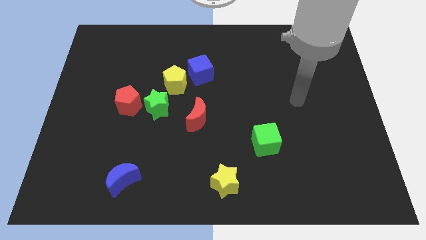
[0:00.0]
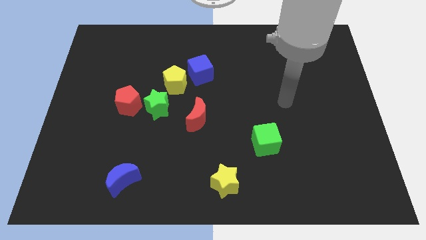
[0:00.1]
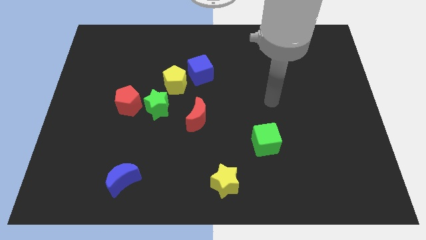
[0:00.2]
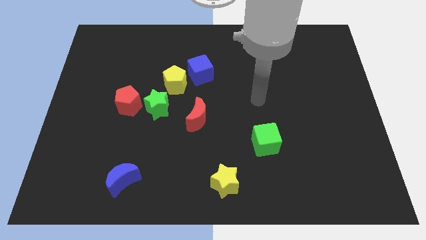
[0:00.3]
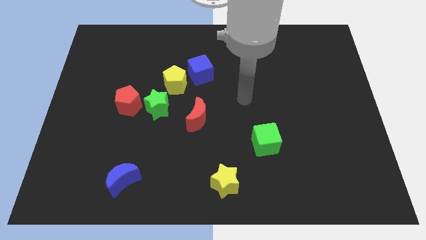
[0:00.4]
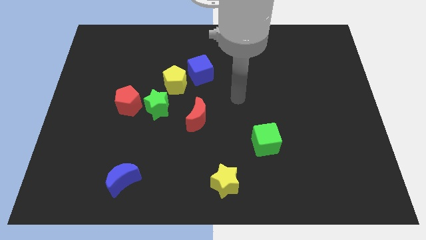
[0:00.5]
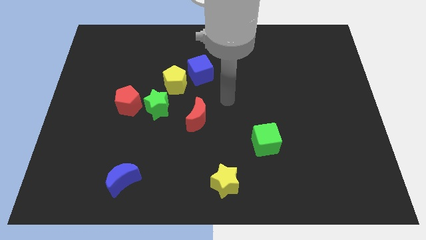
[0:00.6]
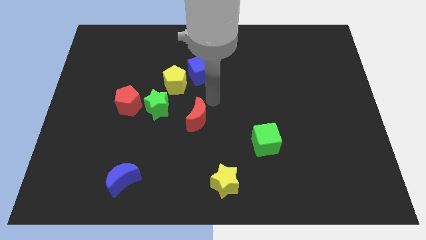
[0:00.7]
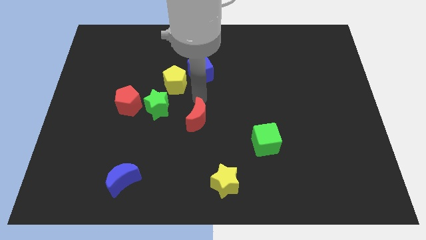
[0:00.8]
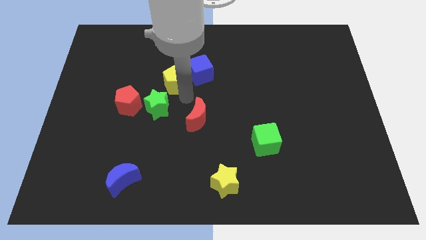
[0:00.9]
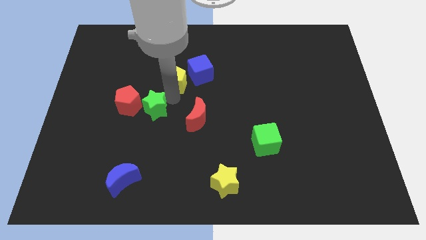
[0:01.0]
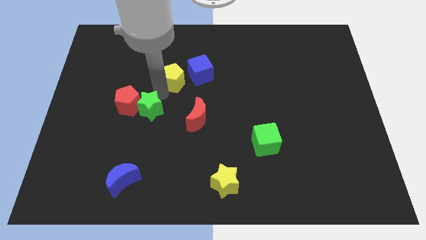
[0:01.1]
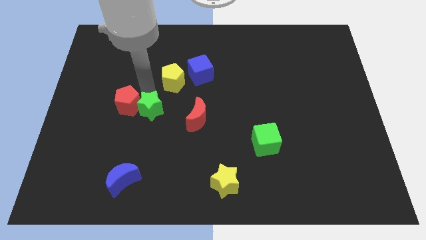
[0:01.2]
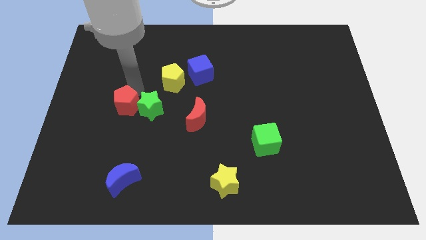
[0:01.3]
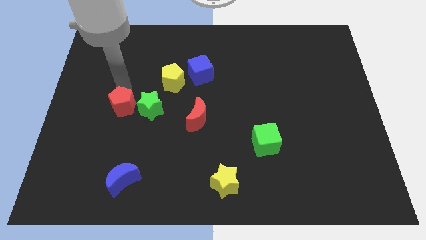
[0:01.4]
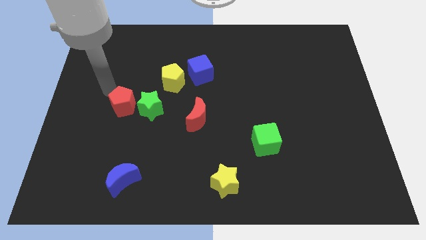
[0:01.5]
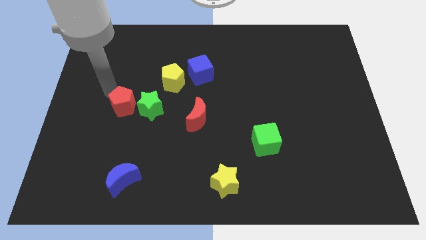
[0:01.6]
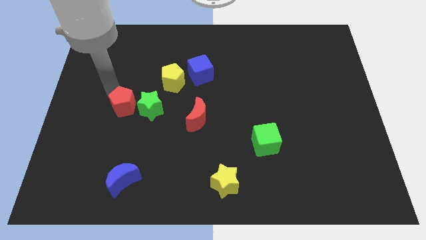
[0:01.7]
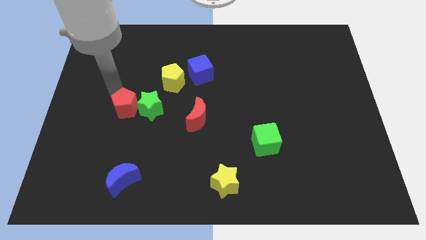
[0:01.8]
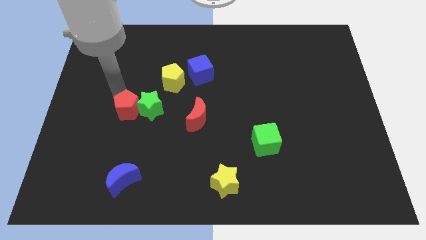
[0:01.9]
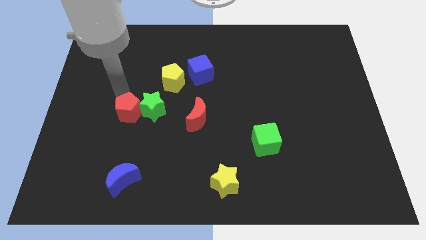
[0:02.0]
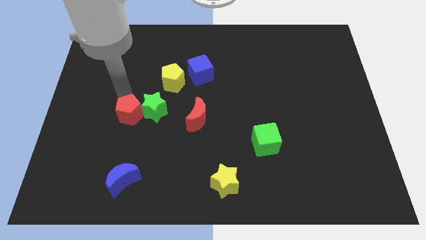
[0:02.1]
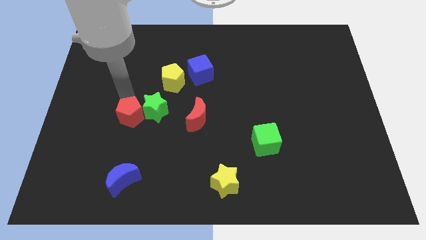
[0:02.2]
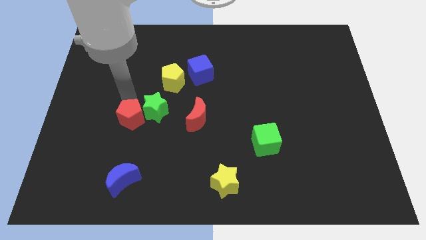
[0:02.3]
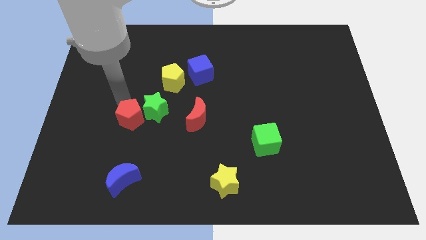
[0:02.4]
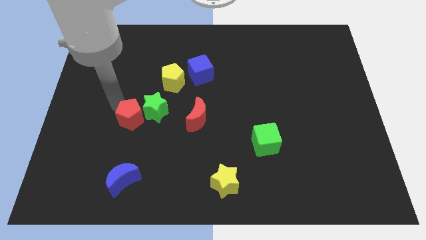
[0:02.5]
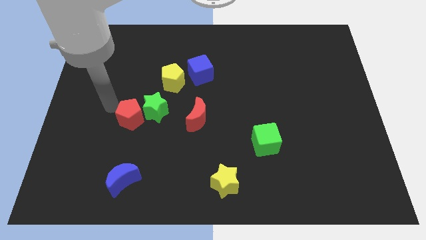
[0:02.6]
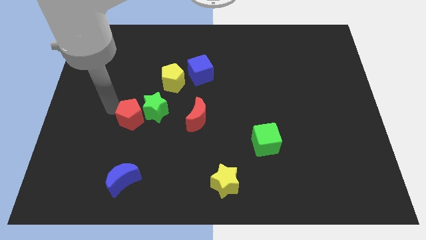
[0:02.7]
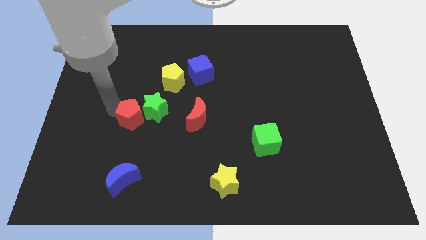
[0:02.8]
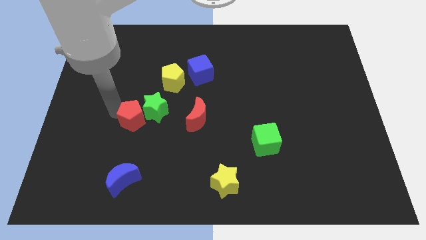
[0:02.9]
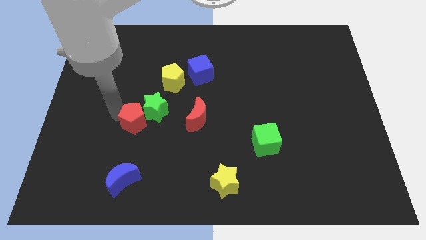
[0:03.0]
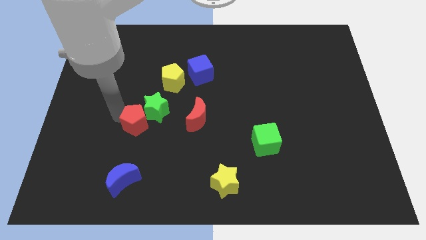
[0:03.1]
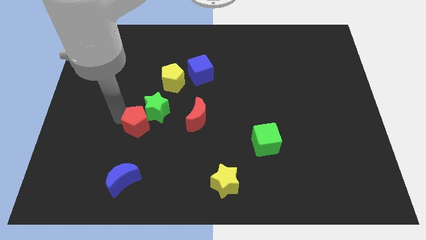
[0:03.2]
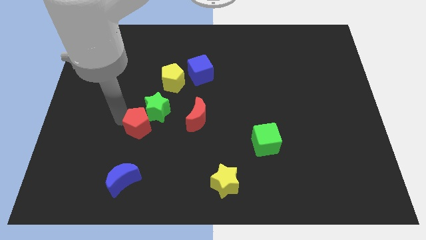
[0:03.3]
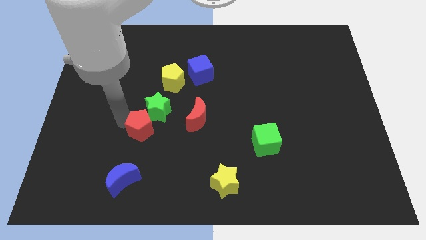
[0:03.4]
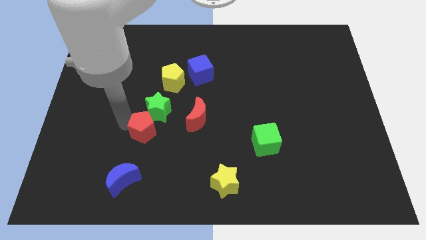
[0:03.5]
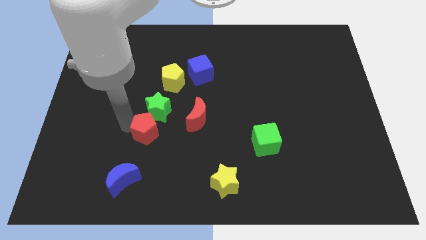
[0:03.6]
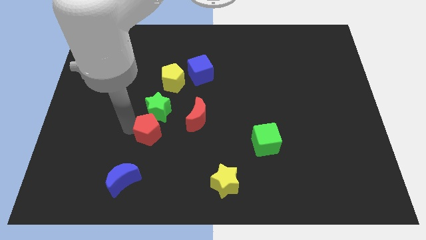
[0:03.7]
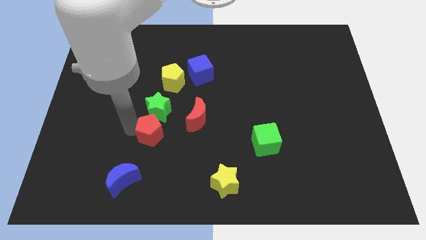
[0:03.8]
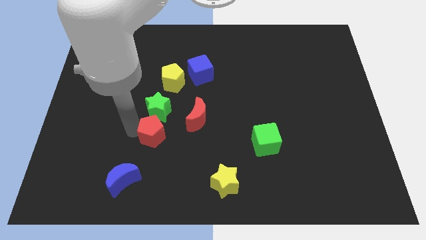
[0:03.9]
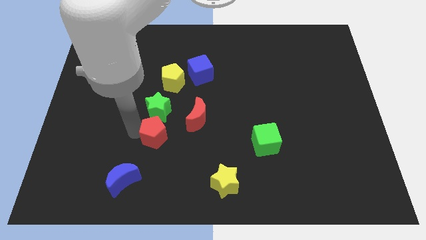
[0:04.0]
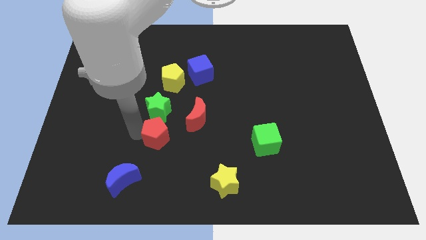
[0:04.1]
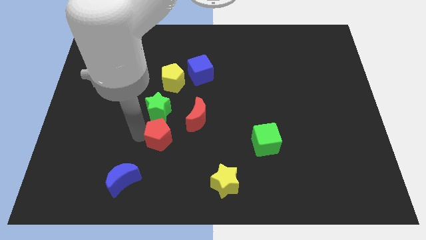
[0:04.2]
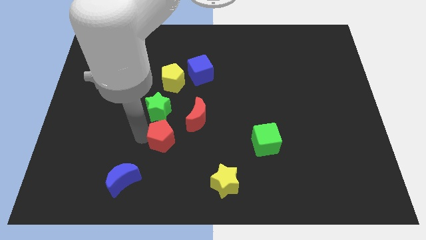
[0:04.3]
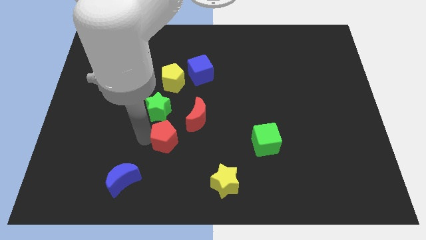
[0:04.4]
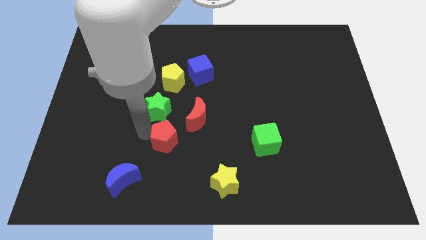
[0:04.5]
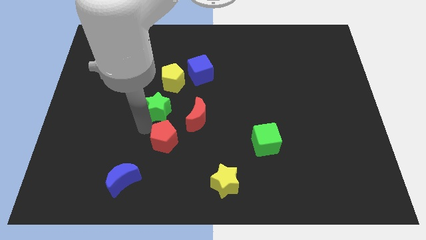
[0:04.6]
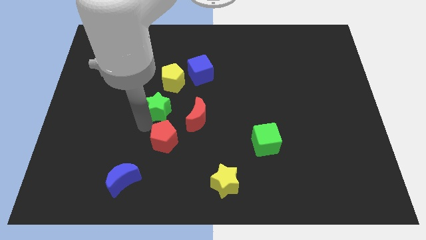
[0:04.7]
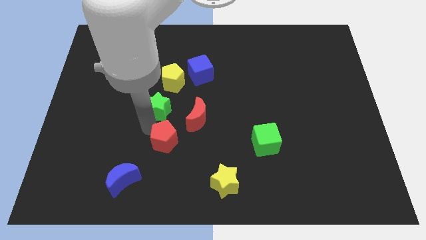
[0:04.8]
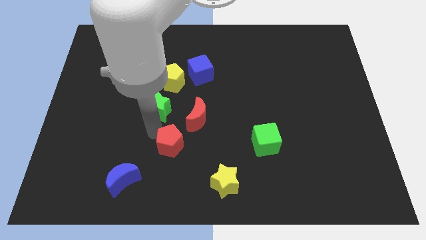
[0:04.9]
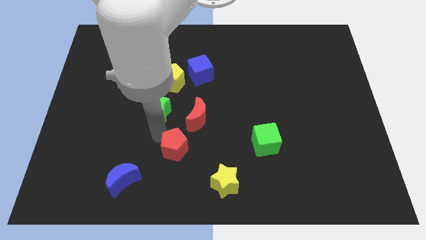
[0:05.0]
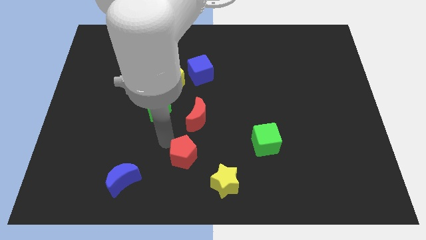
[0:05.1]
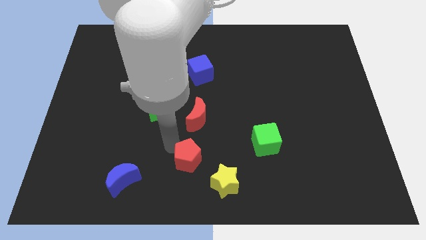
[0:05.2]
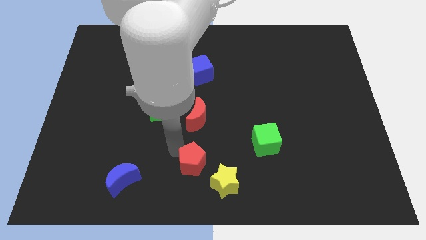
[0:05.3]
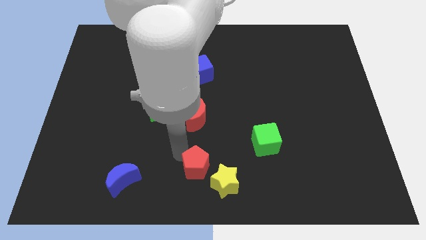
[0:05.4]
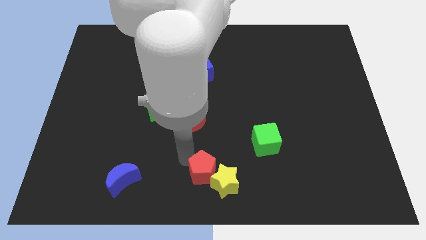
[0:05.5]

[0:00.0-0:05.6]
slide the red pentagon next to the yellow star

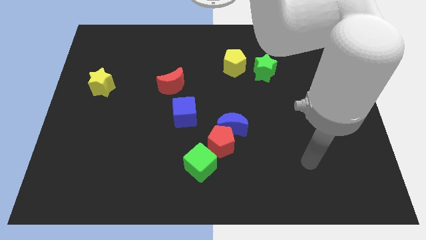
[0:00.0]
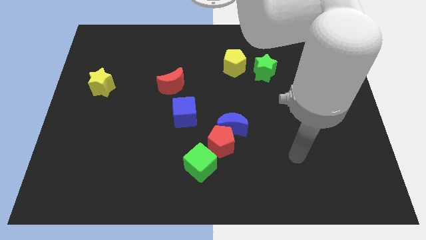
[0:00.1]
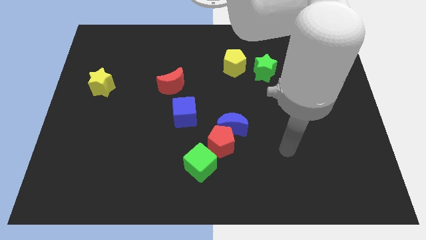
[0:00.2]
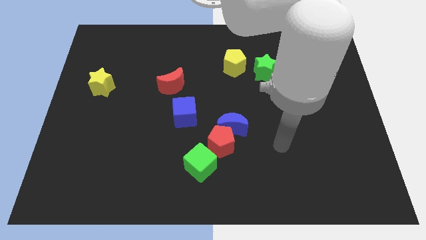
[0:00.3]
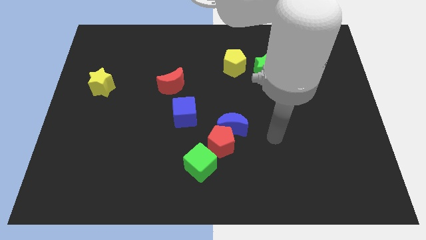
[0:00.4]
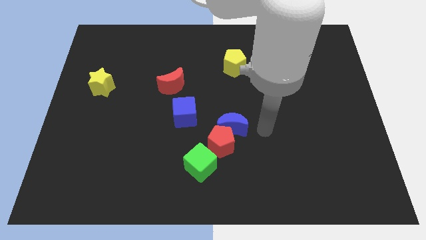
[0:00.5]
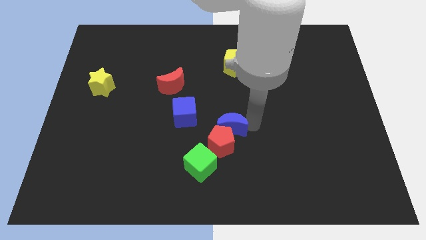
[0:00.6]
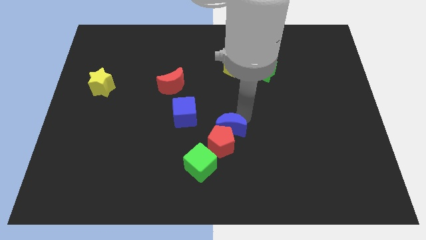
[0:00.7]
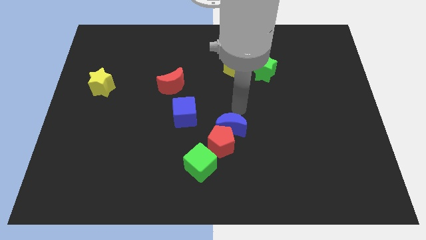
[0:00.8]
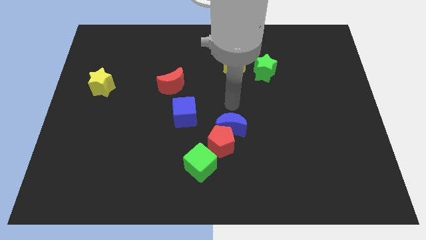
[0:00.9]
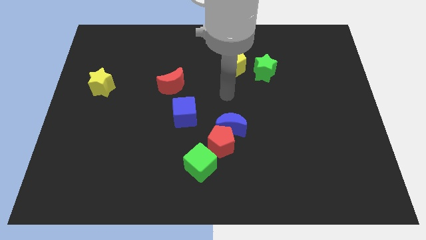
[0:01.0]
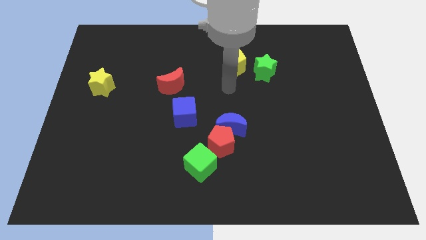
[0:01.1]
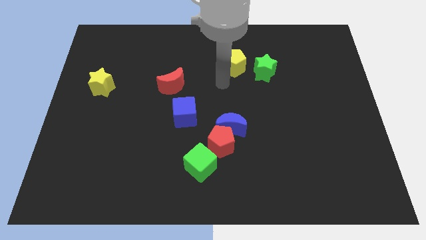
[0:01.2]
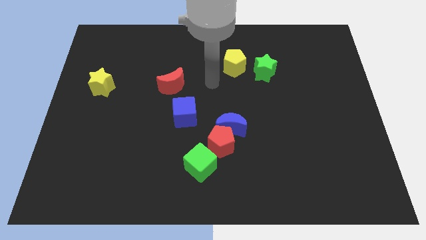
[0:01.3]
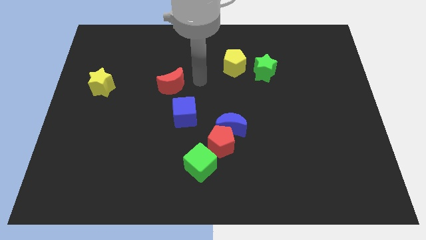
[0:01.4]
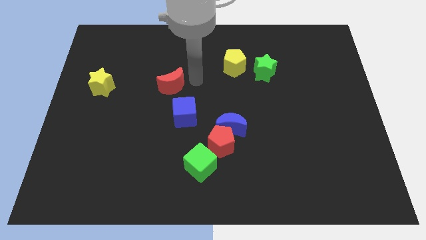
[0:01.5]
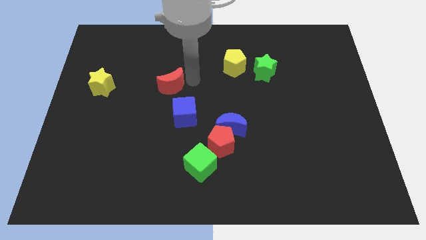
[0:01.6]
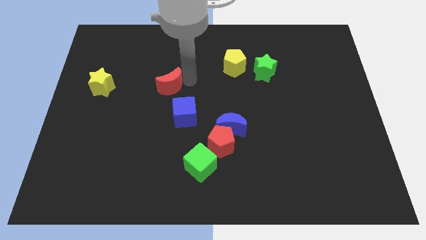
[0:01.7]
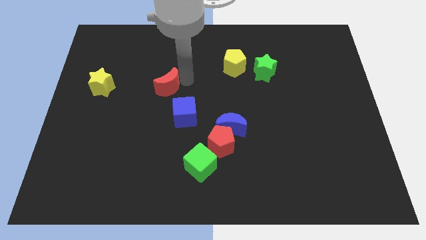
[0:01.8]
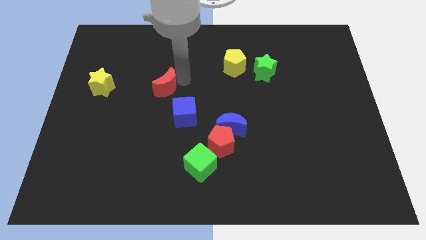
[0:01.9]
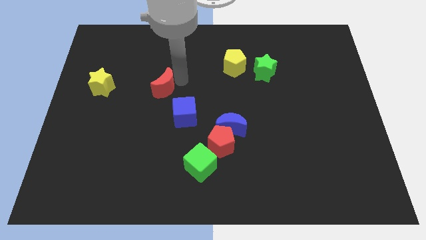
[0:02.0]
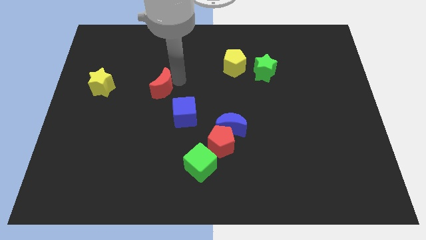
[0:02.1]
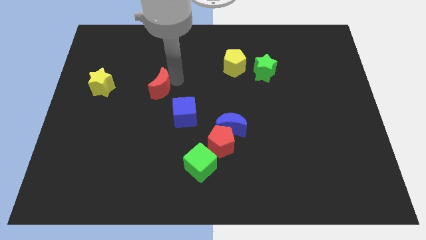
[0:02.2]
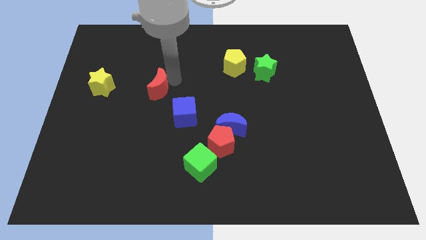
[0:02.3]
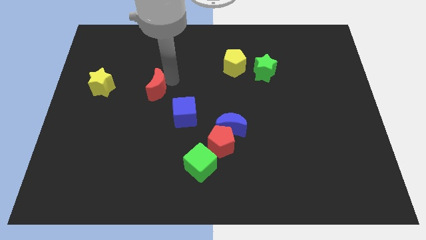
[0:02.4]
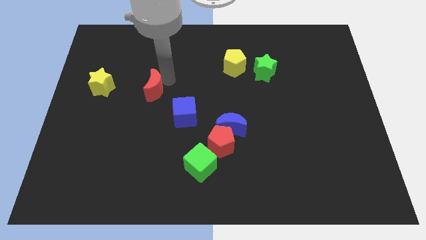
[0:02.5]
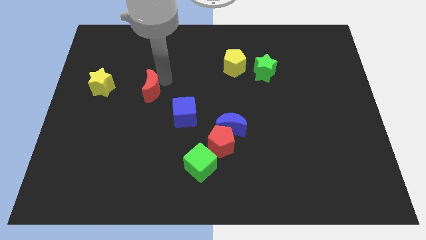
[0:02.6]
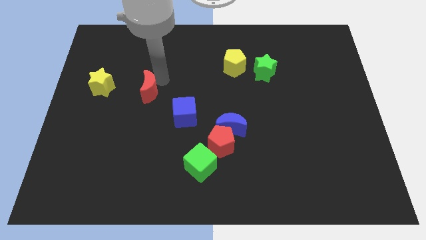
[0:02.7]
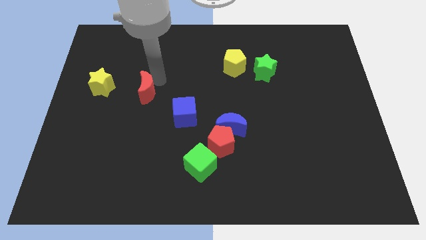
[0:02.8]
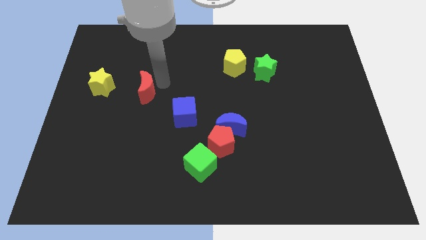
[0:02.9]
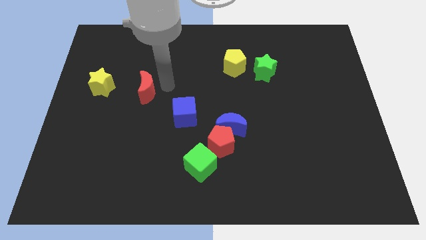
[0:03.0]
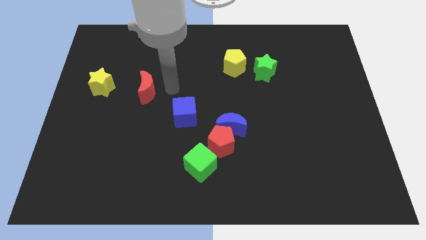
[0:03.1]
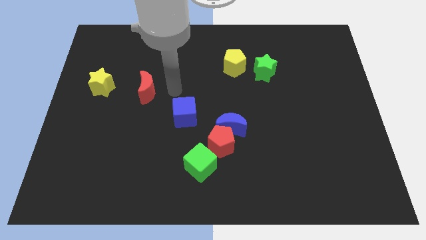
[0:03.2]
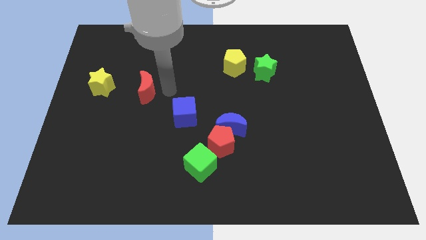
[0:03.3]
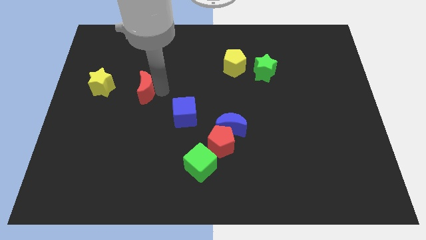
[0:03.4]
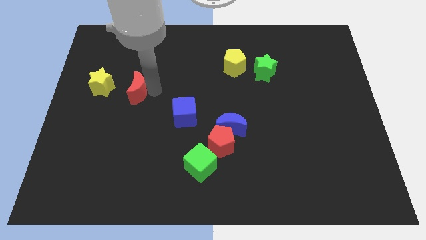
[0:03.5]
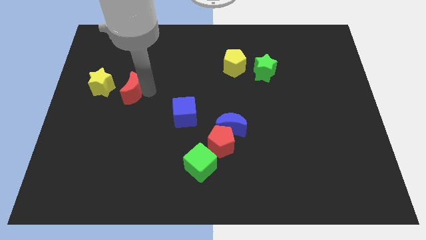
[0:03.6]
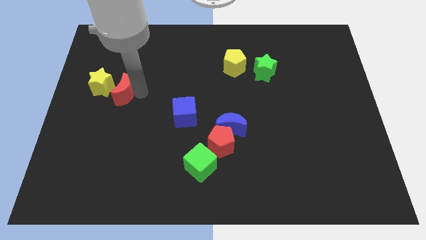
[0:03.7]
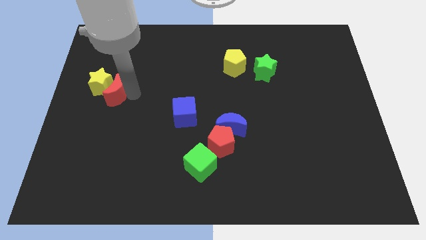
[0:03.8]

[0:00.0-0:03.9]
move the red moon next to the yellow star
